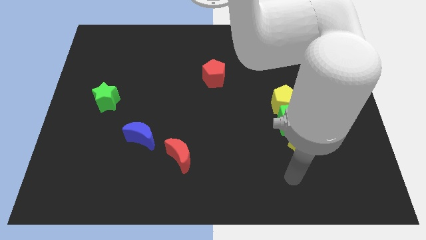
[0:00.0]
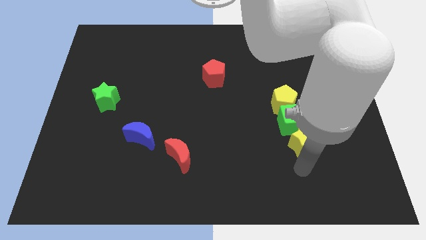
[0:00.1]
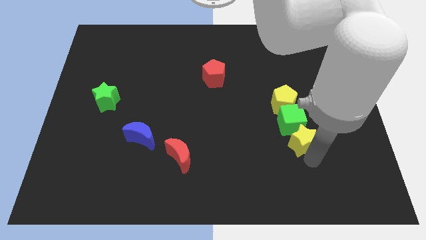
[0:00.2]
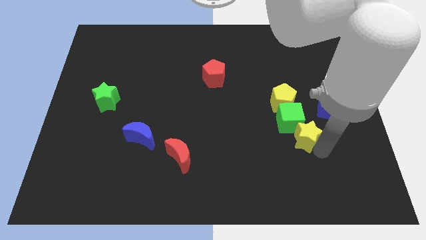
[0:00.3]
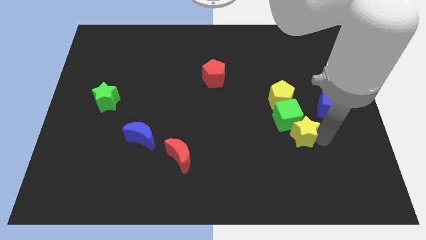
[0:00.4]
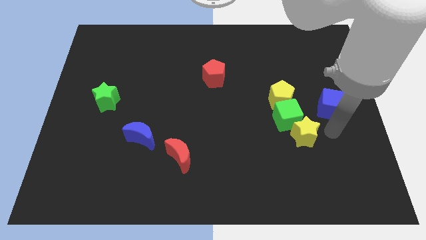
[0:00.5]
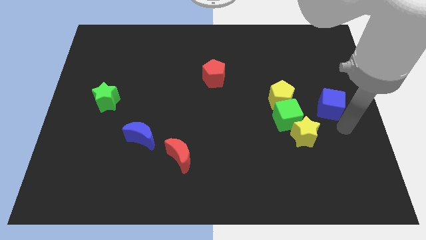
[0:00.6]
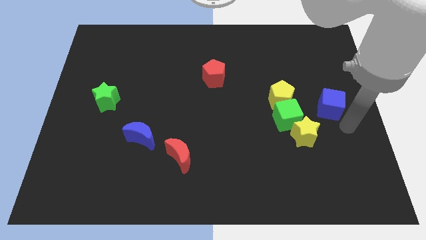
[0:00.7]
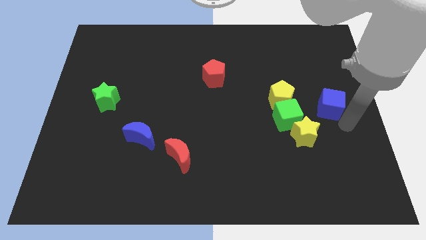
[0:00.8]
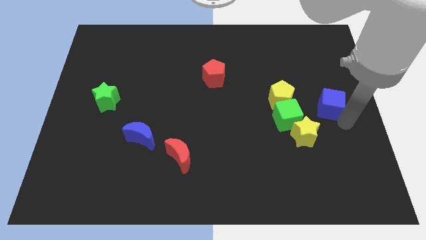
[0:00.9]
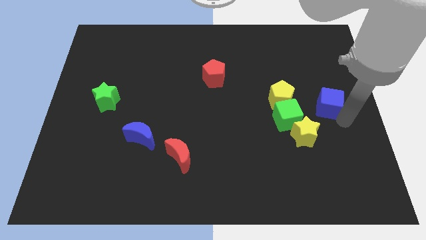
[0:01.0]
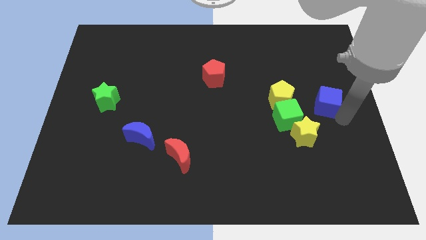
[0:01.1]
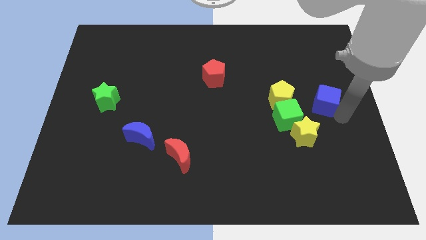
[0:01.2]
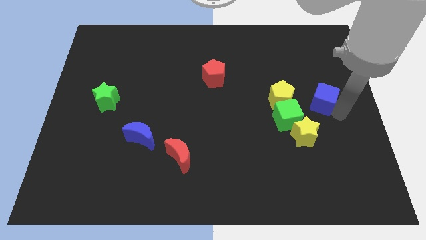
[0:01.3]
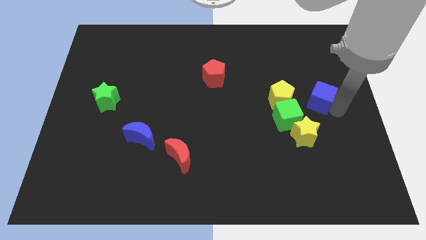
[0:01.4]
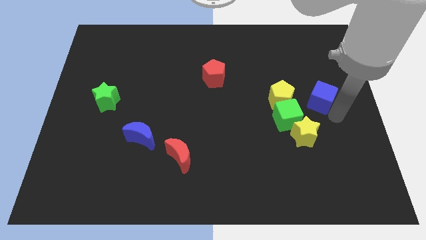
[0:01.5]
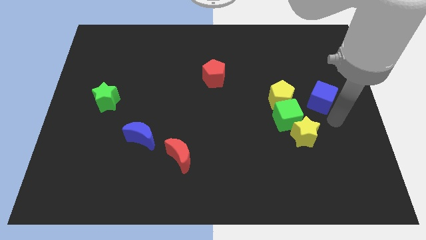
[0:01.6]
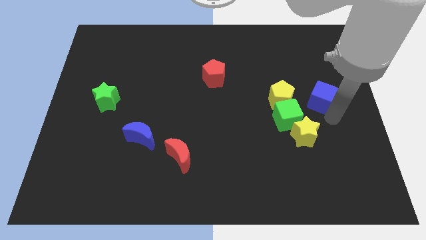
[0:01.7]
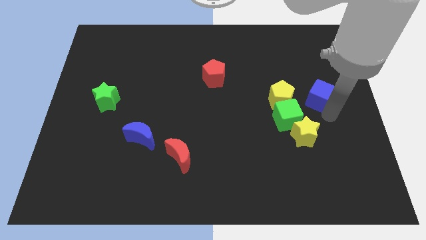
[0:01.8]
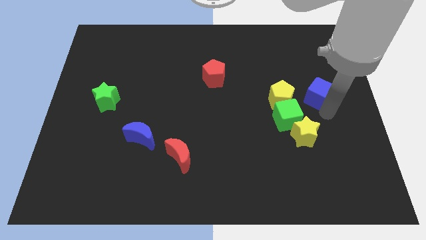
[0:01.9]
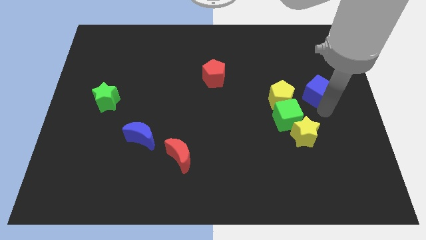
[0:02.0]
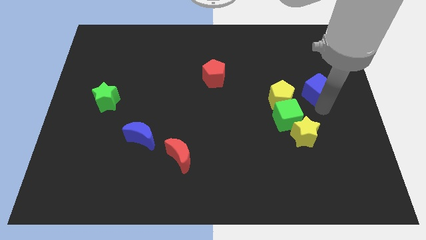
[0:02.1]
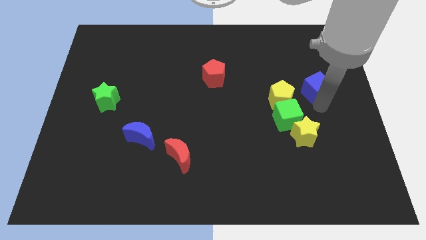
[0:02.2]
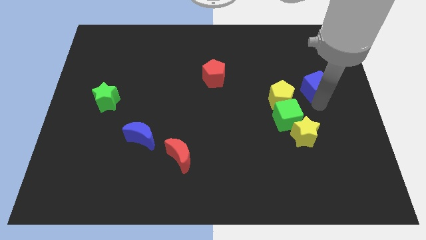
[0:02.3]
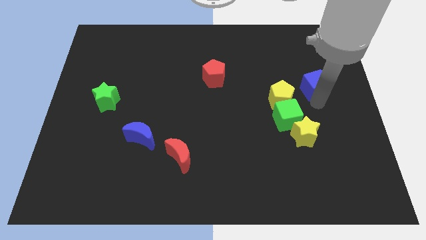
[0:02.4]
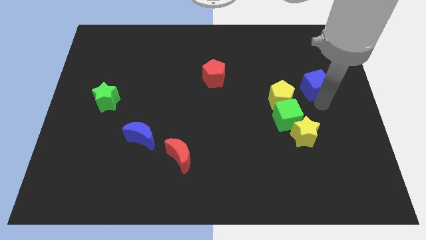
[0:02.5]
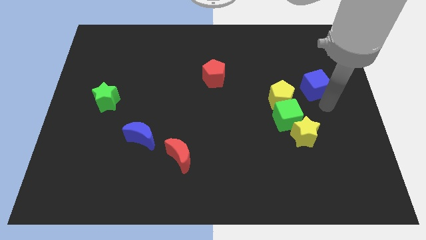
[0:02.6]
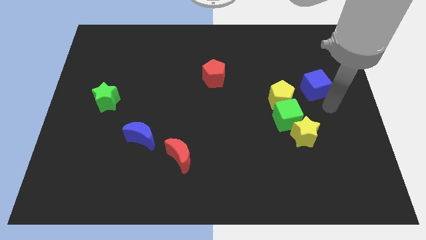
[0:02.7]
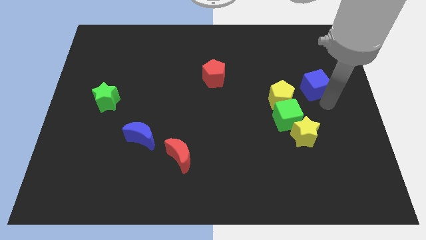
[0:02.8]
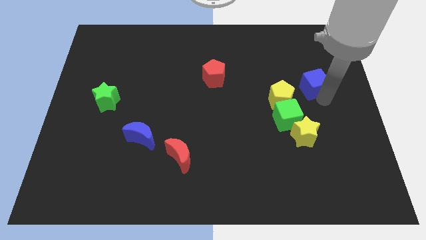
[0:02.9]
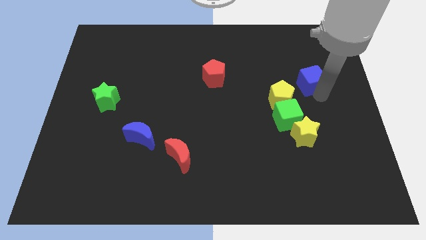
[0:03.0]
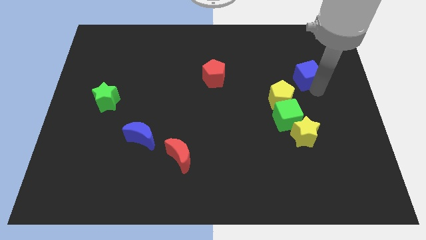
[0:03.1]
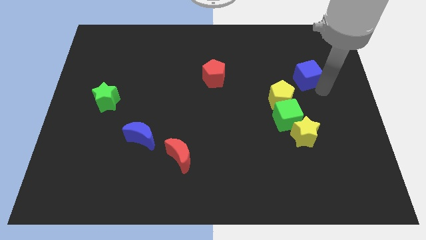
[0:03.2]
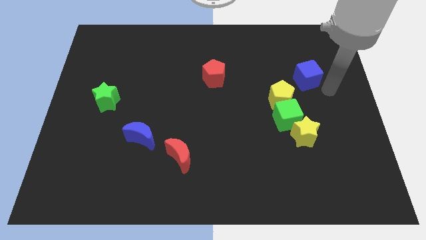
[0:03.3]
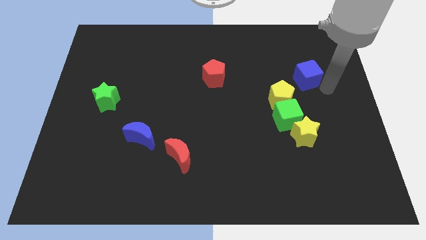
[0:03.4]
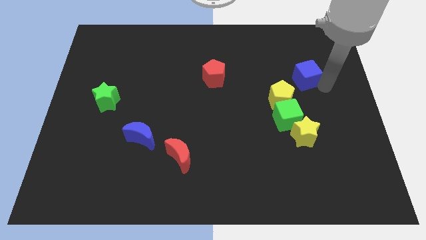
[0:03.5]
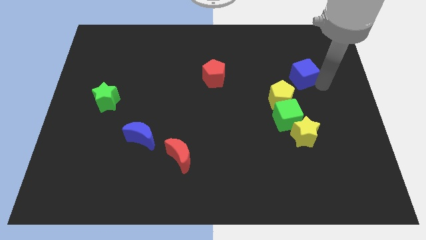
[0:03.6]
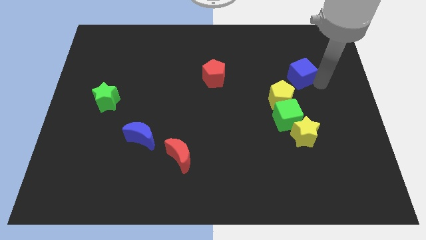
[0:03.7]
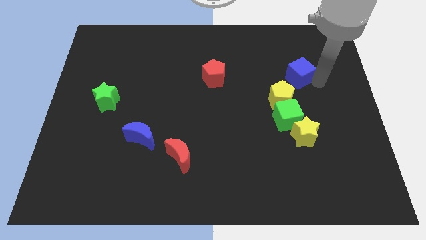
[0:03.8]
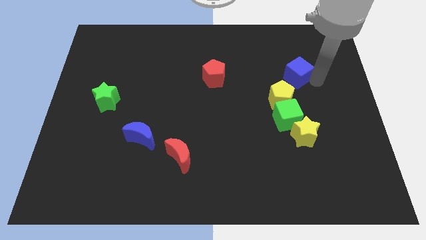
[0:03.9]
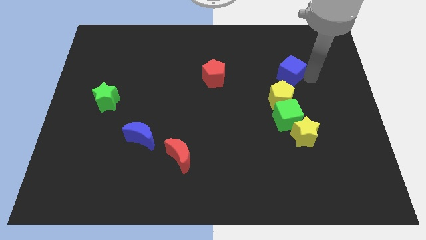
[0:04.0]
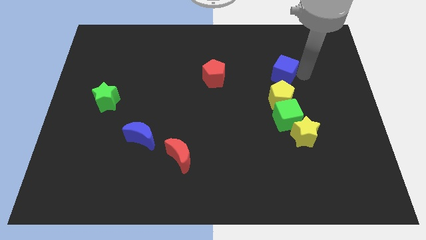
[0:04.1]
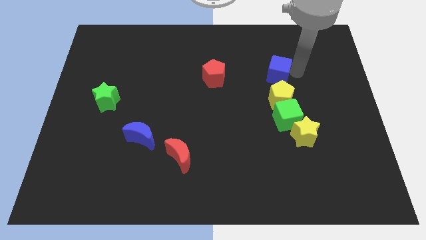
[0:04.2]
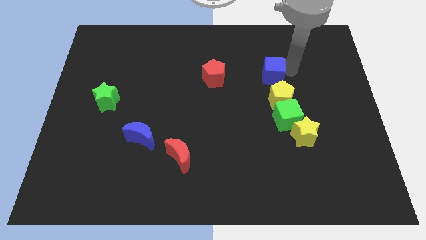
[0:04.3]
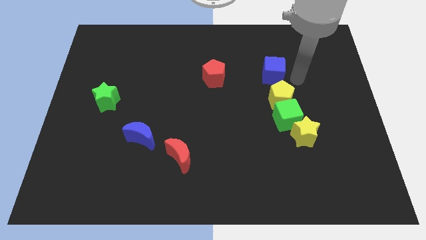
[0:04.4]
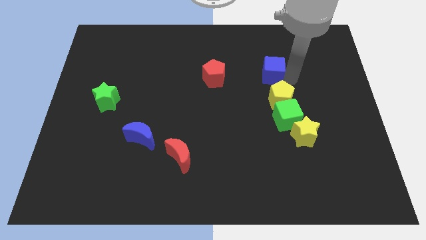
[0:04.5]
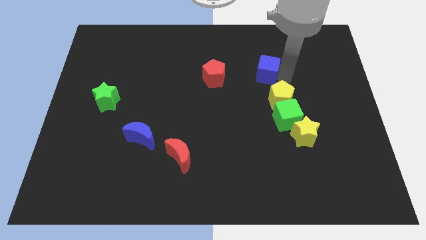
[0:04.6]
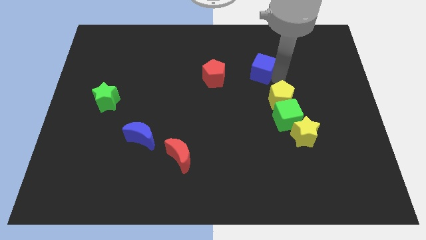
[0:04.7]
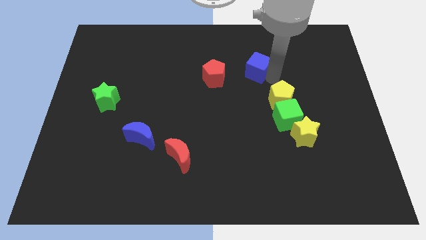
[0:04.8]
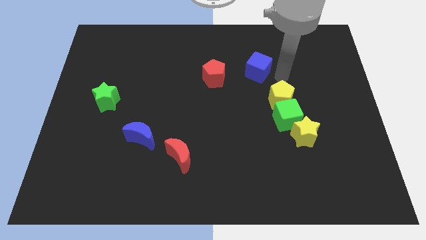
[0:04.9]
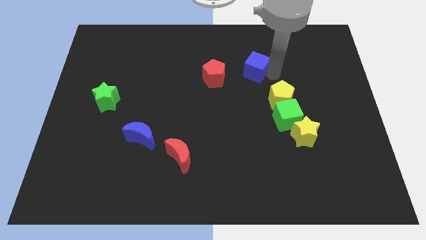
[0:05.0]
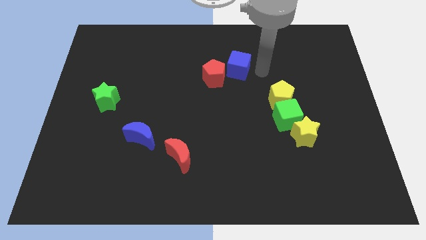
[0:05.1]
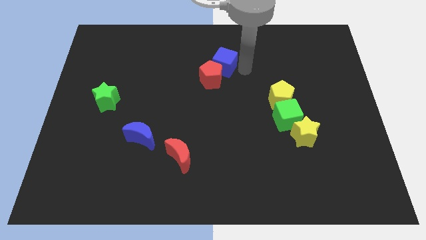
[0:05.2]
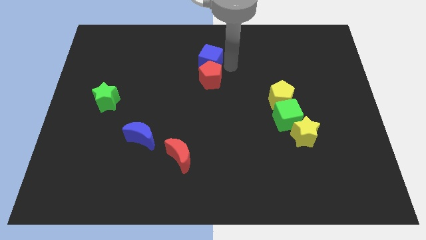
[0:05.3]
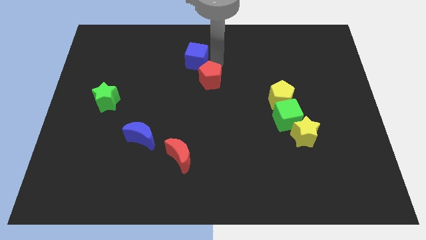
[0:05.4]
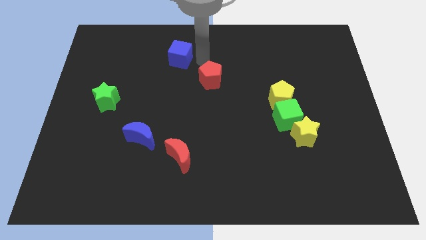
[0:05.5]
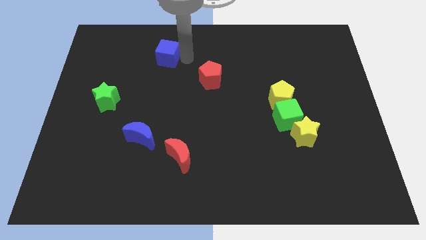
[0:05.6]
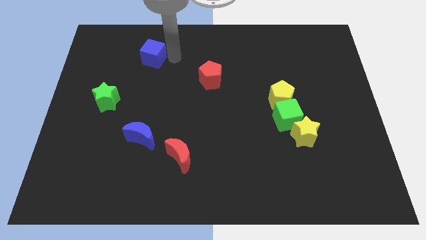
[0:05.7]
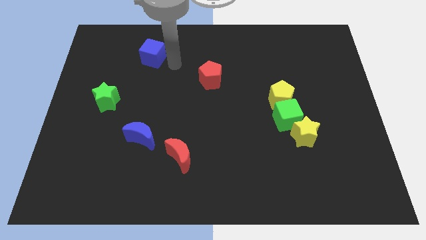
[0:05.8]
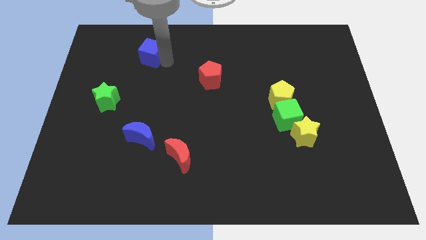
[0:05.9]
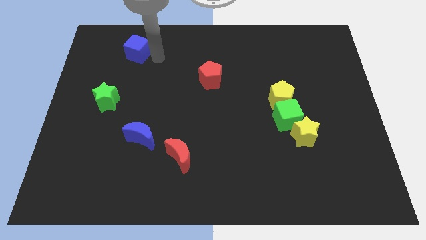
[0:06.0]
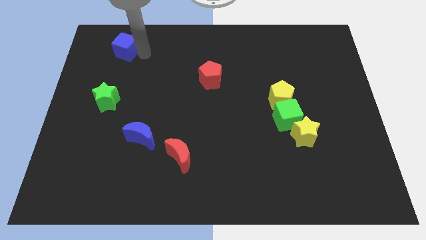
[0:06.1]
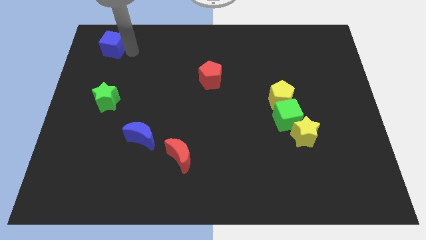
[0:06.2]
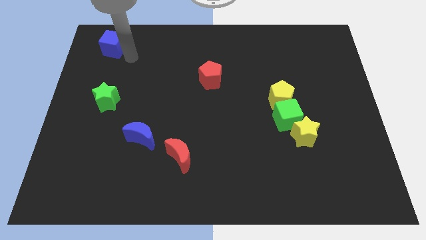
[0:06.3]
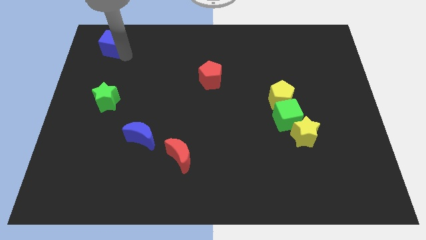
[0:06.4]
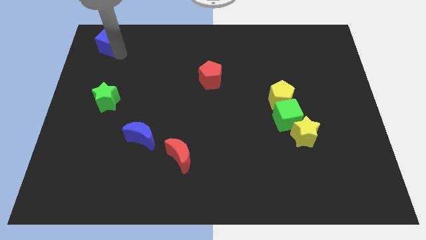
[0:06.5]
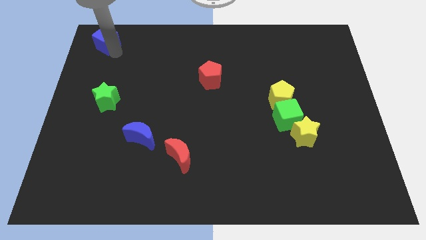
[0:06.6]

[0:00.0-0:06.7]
slide the blue cube to the top left corner
